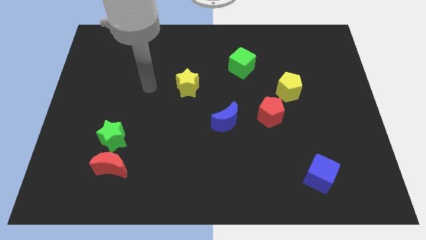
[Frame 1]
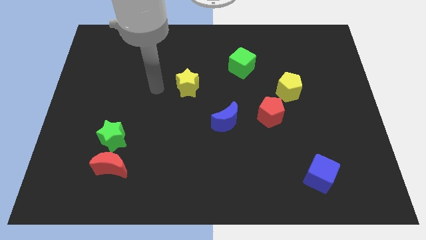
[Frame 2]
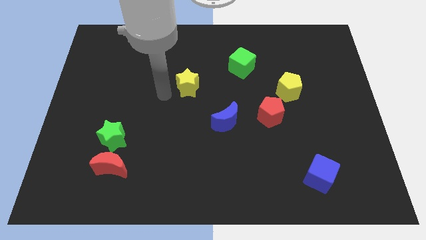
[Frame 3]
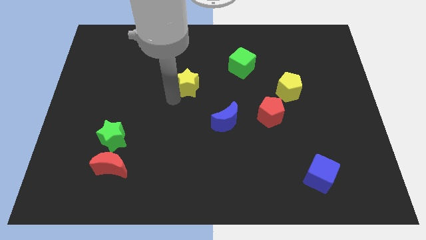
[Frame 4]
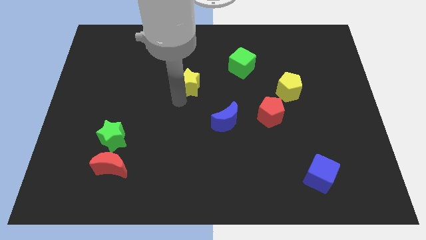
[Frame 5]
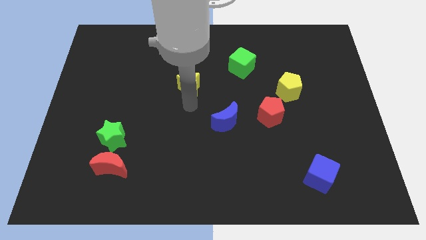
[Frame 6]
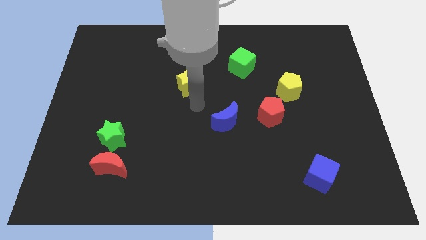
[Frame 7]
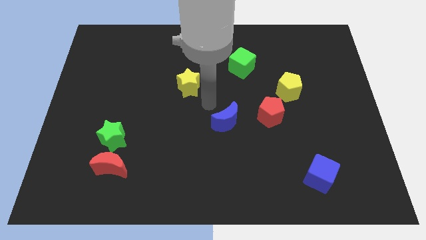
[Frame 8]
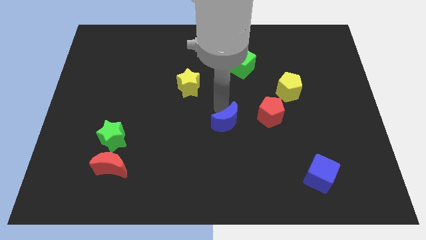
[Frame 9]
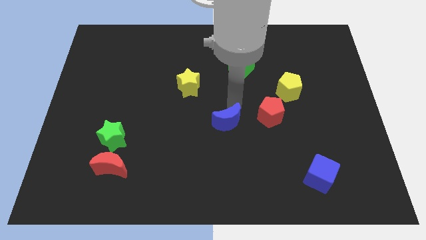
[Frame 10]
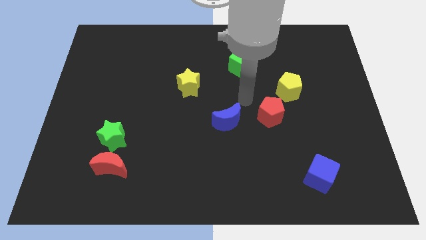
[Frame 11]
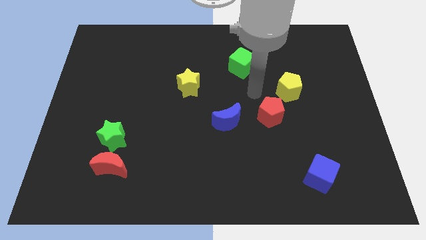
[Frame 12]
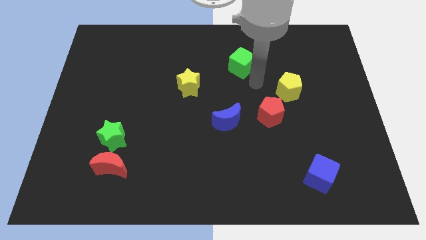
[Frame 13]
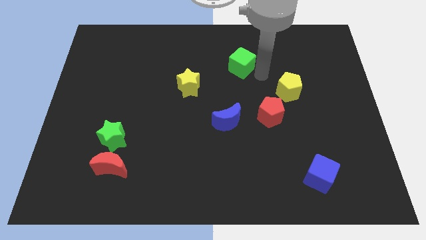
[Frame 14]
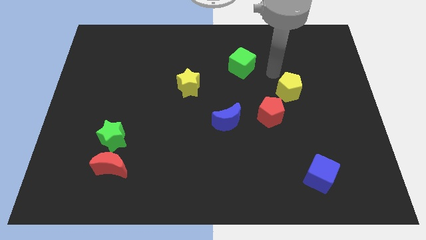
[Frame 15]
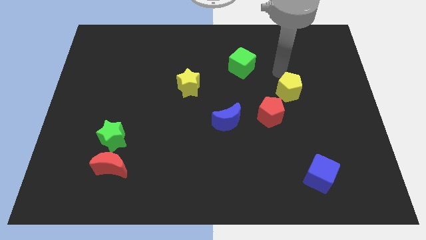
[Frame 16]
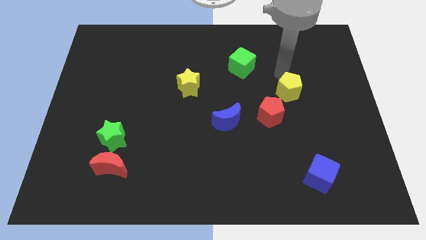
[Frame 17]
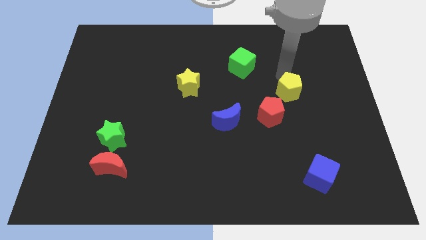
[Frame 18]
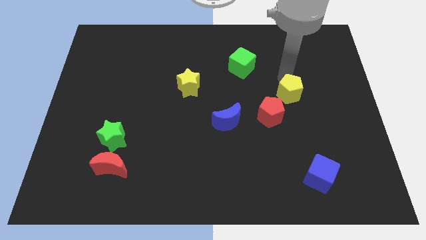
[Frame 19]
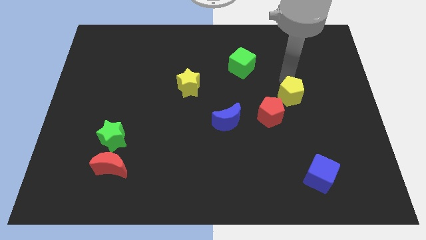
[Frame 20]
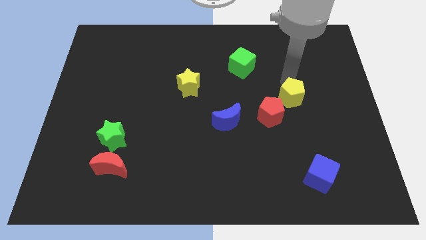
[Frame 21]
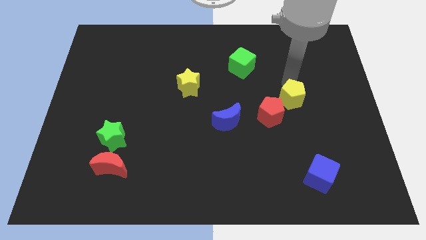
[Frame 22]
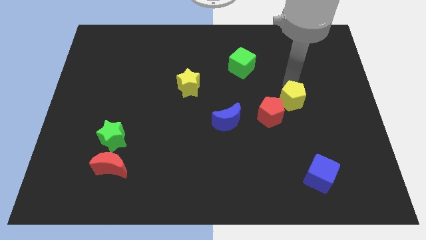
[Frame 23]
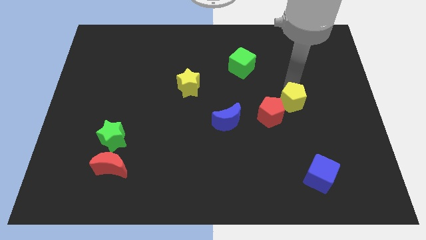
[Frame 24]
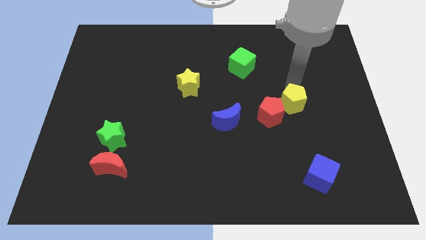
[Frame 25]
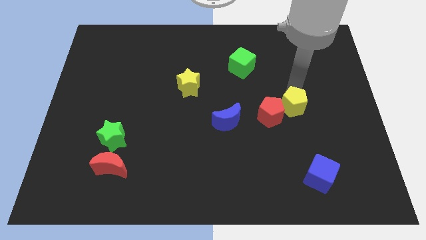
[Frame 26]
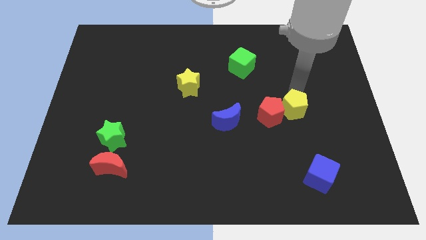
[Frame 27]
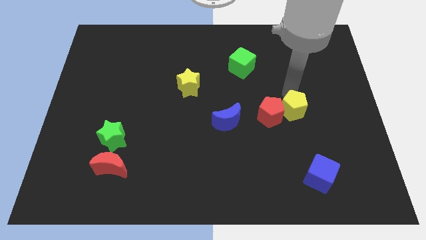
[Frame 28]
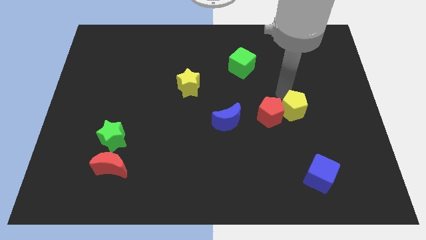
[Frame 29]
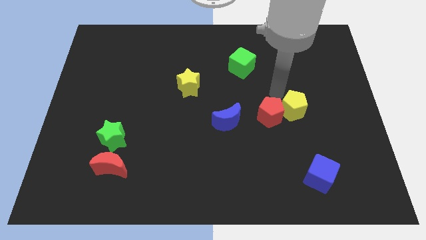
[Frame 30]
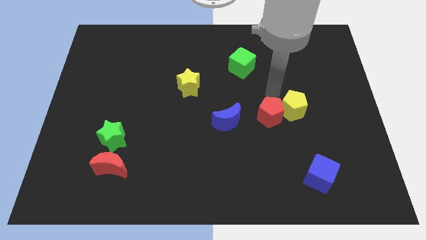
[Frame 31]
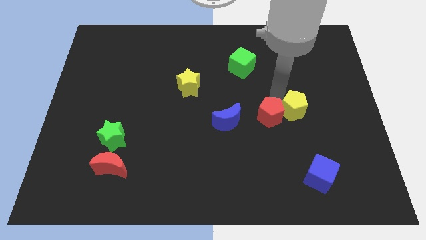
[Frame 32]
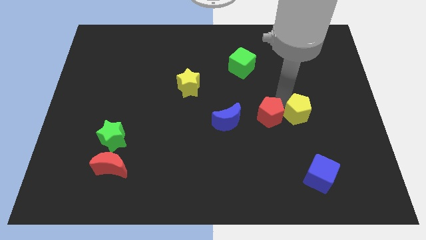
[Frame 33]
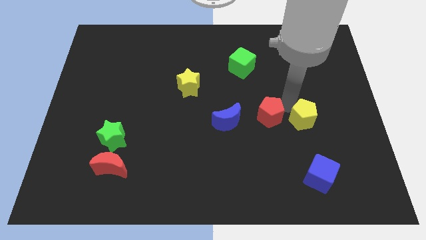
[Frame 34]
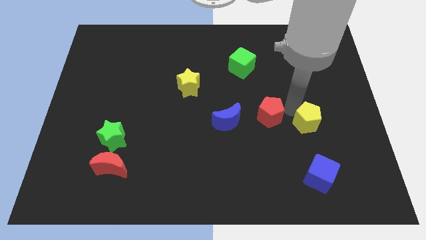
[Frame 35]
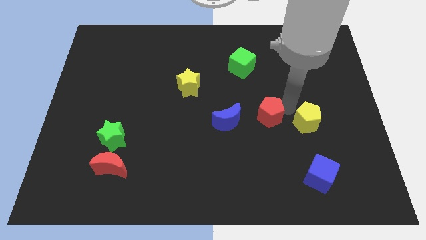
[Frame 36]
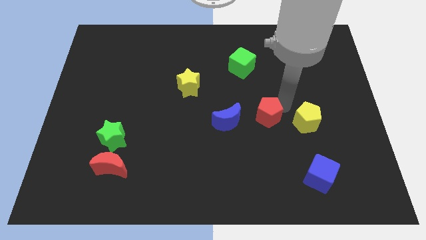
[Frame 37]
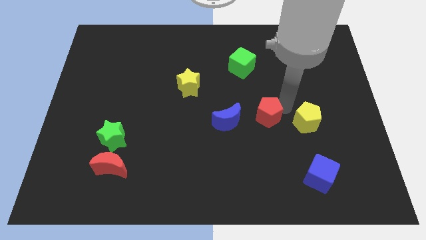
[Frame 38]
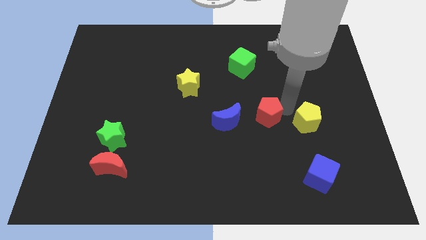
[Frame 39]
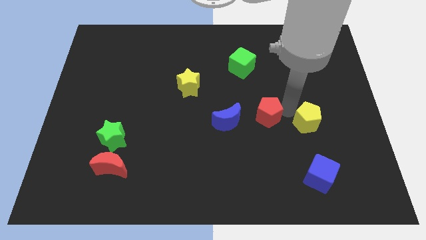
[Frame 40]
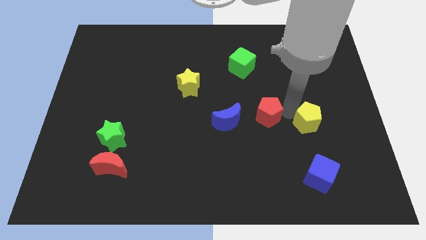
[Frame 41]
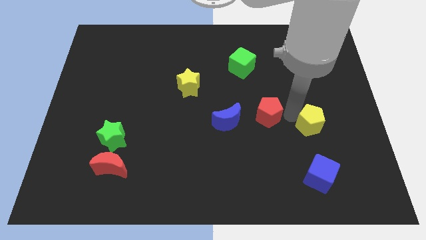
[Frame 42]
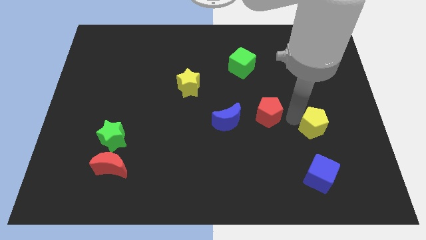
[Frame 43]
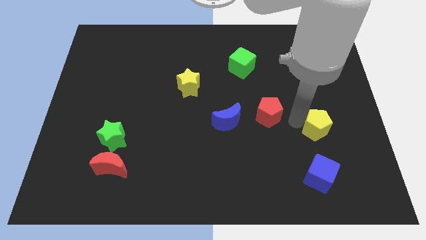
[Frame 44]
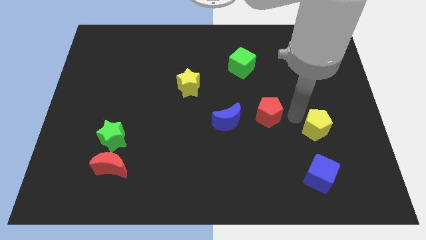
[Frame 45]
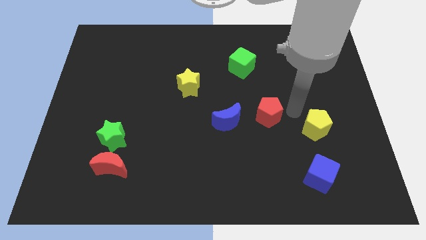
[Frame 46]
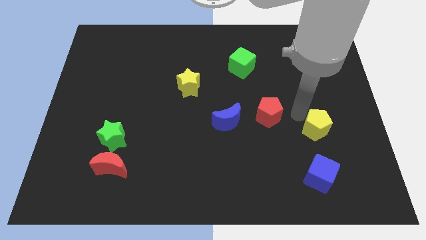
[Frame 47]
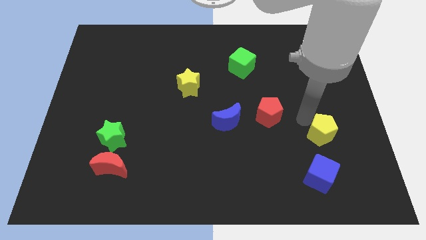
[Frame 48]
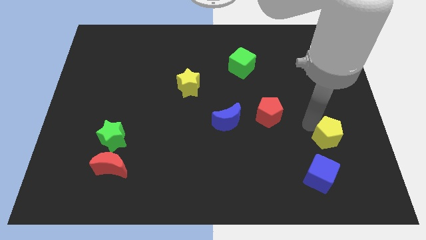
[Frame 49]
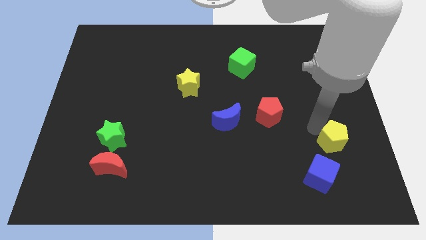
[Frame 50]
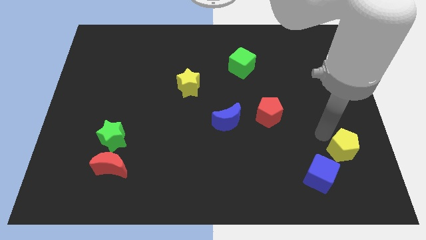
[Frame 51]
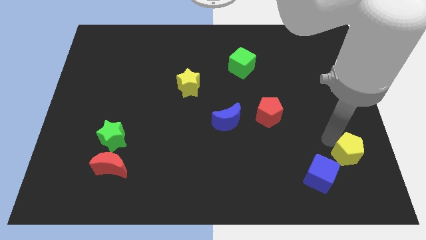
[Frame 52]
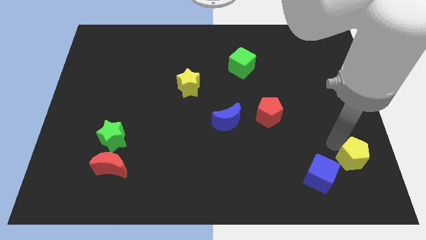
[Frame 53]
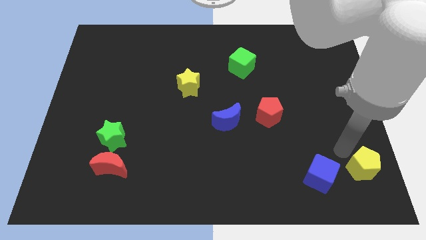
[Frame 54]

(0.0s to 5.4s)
push the yellow pentagon to the bottom right of the board

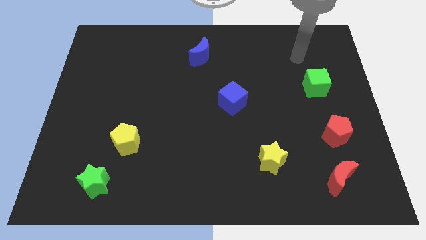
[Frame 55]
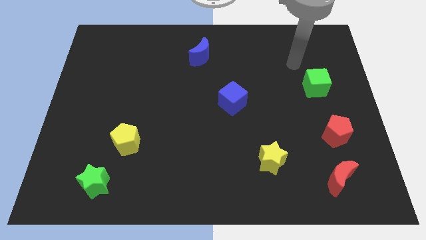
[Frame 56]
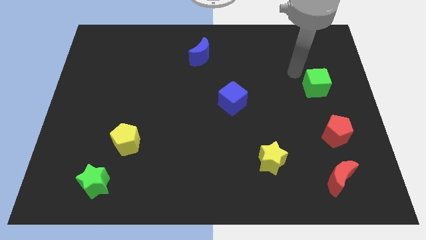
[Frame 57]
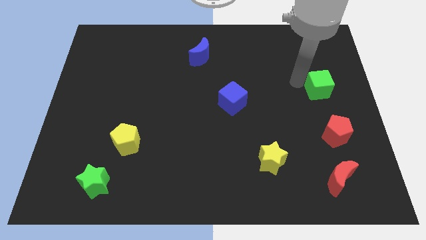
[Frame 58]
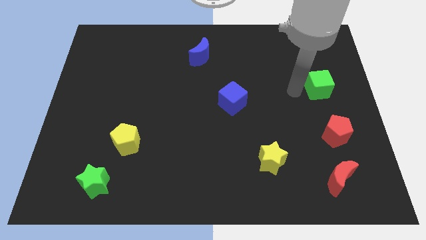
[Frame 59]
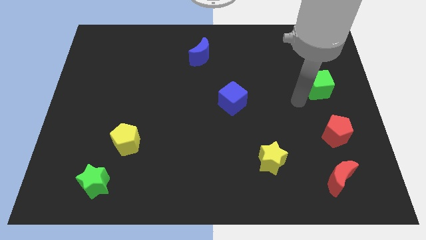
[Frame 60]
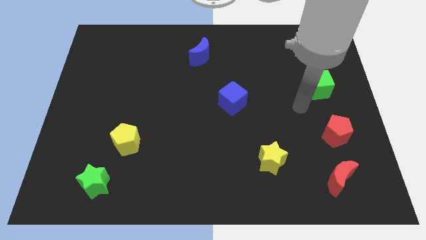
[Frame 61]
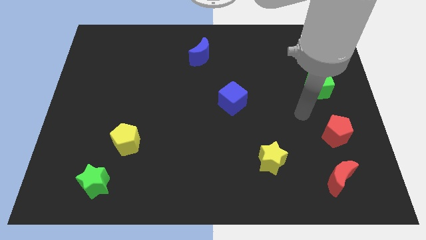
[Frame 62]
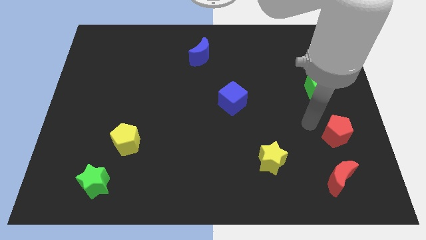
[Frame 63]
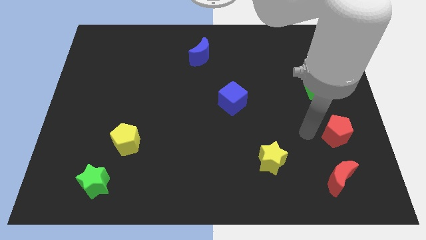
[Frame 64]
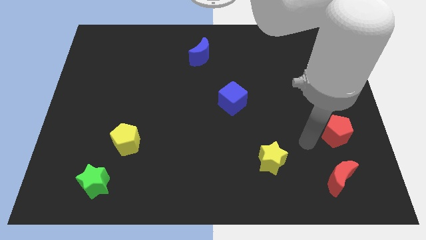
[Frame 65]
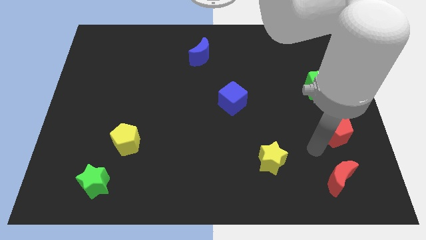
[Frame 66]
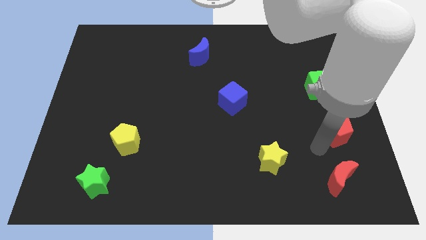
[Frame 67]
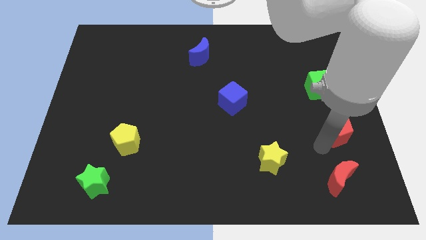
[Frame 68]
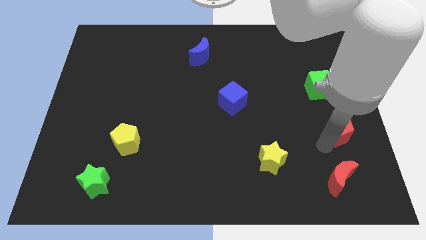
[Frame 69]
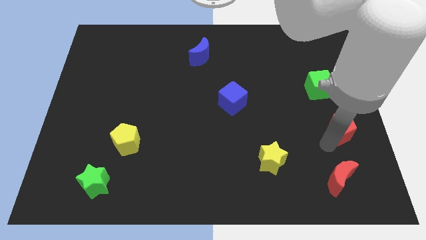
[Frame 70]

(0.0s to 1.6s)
slide the red pentagon to the right side
